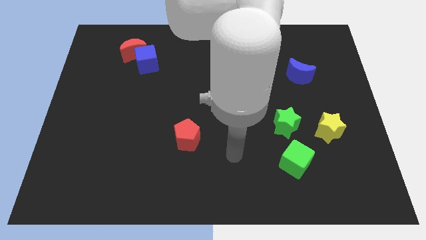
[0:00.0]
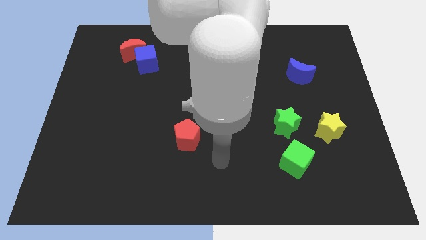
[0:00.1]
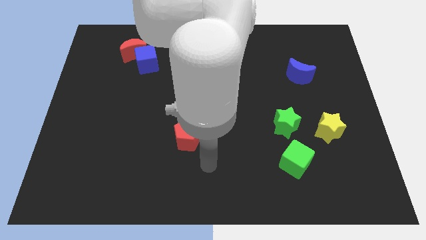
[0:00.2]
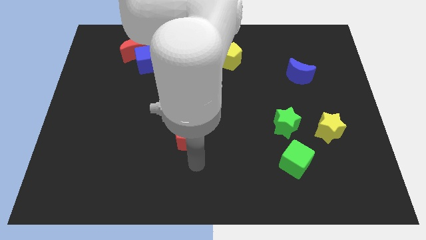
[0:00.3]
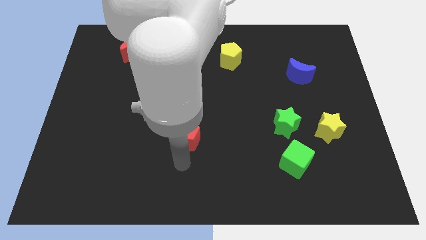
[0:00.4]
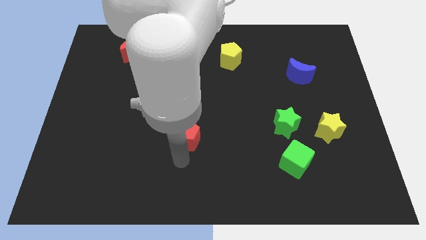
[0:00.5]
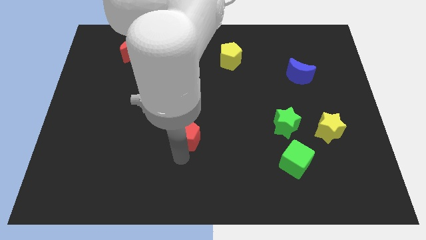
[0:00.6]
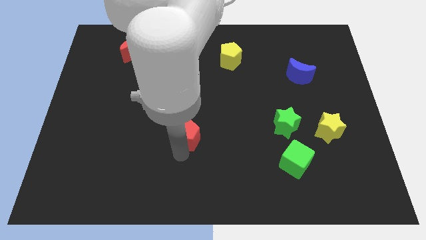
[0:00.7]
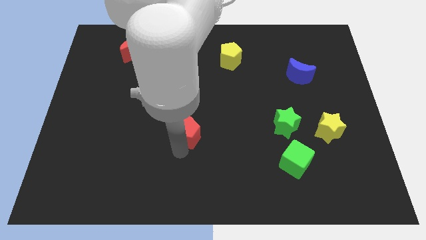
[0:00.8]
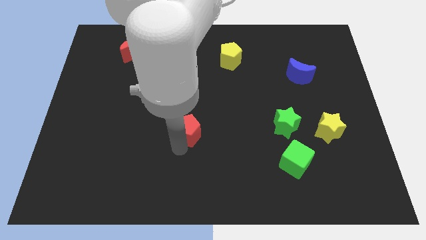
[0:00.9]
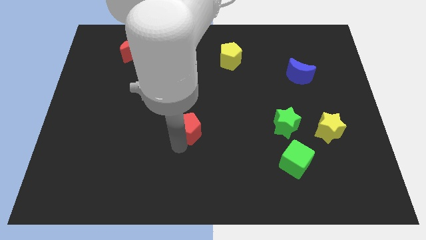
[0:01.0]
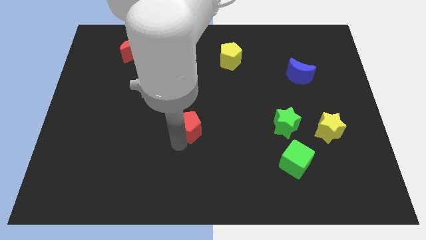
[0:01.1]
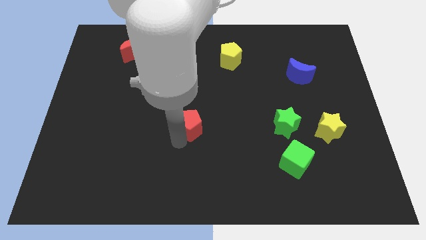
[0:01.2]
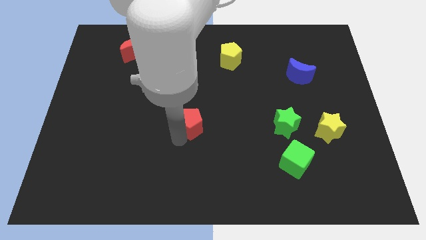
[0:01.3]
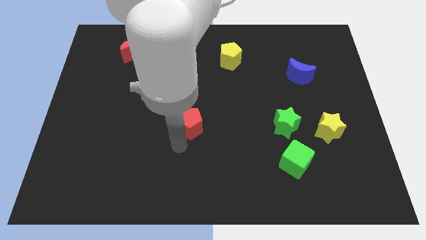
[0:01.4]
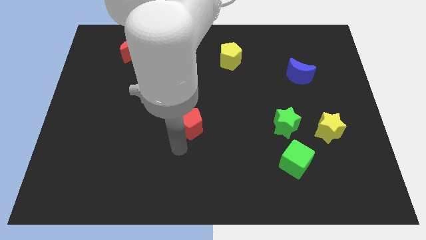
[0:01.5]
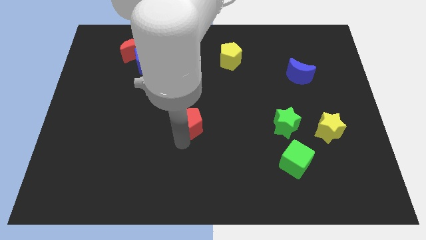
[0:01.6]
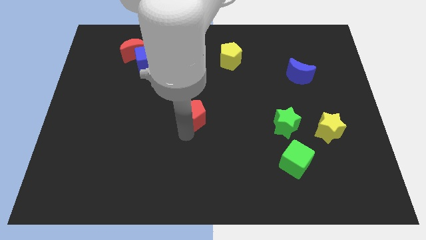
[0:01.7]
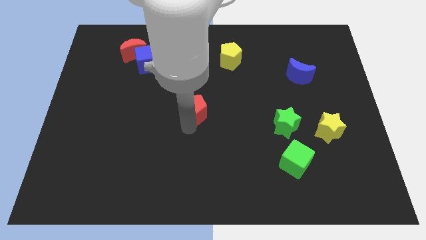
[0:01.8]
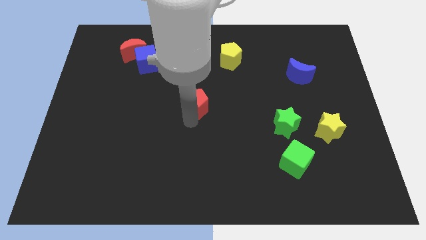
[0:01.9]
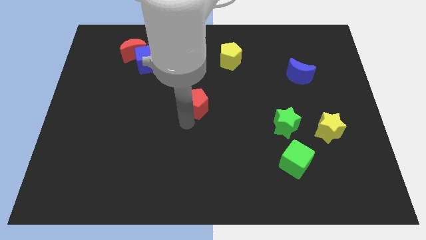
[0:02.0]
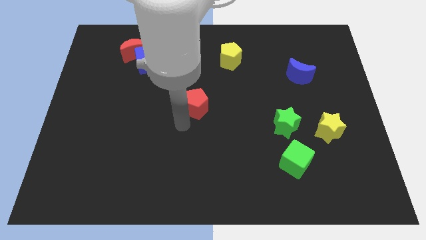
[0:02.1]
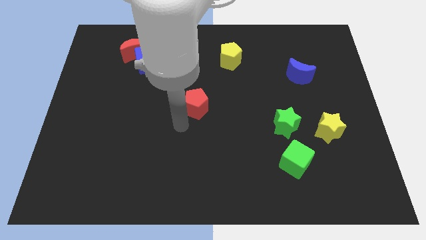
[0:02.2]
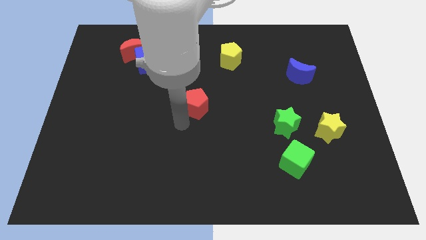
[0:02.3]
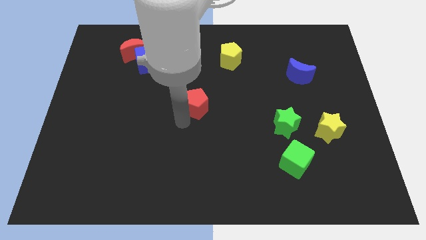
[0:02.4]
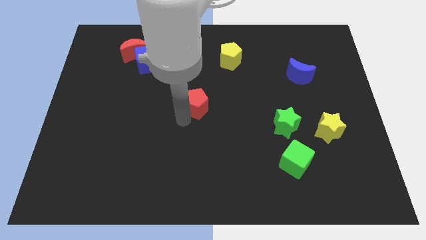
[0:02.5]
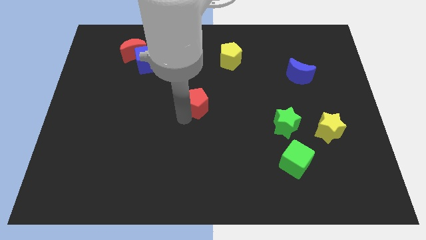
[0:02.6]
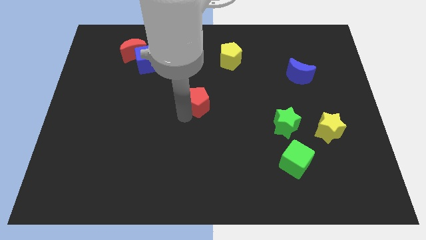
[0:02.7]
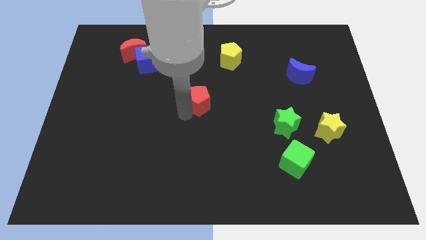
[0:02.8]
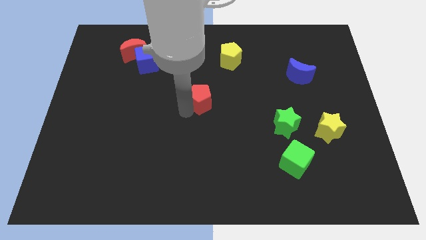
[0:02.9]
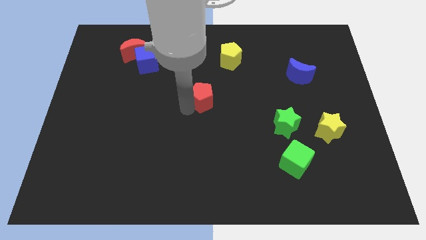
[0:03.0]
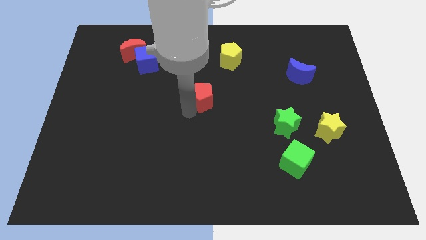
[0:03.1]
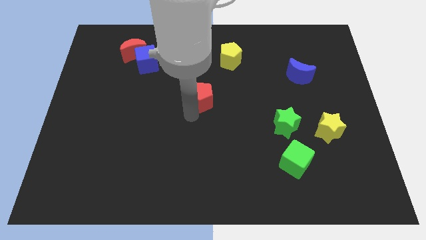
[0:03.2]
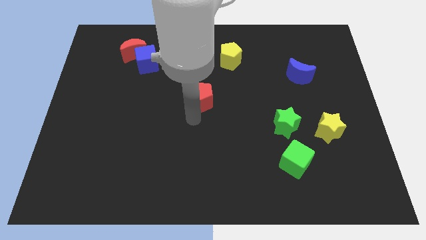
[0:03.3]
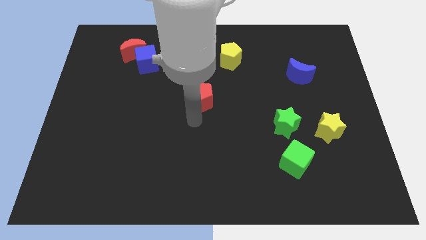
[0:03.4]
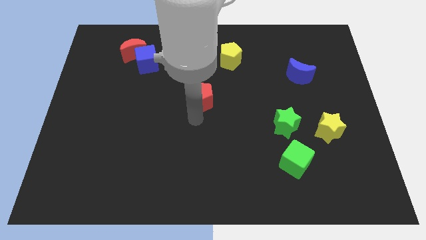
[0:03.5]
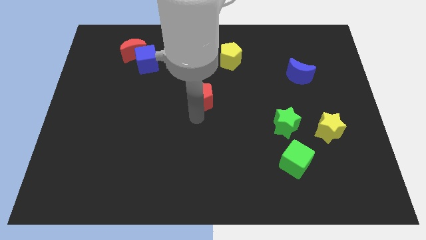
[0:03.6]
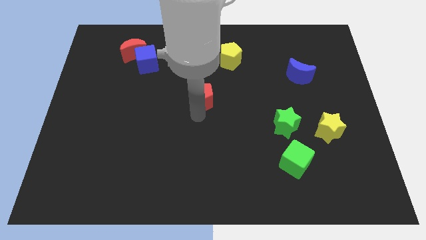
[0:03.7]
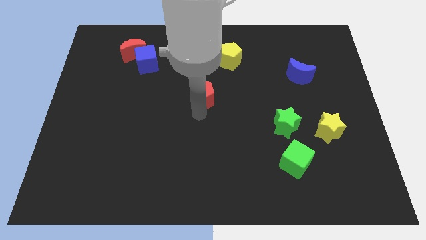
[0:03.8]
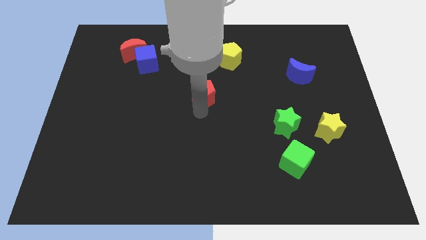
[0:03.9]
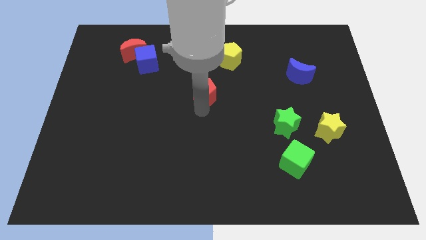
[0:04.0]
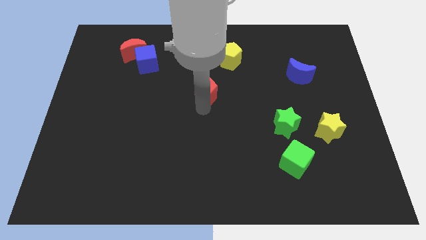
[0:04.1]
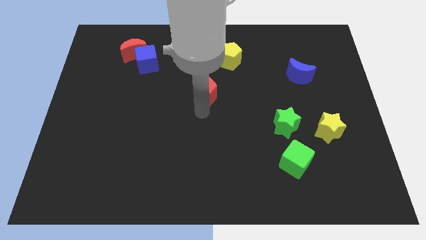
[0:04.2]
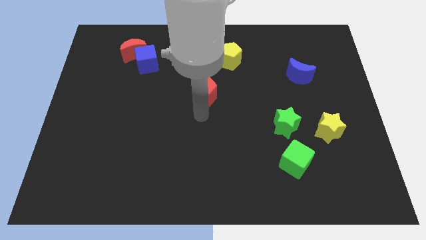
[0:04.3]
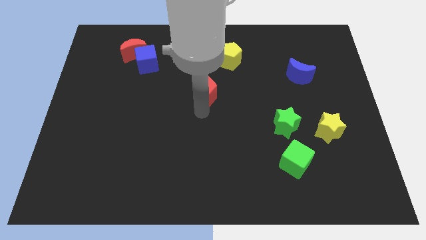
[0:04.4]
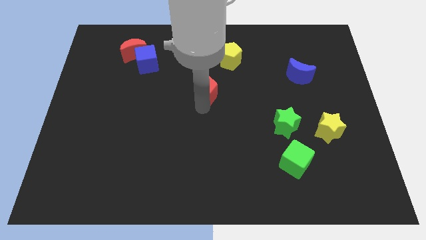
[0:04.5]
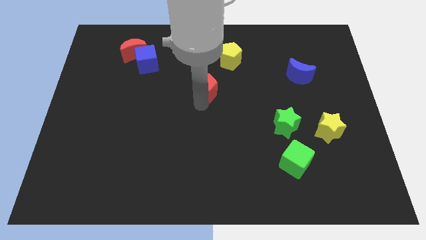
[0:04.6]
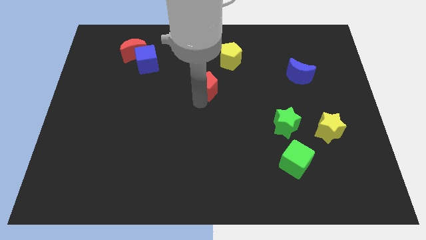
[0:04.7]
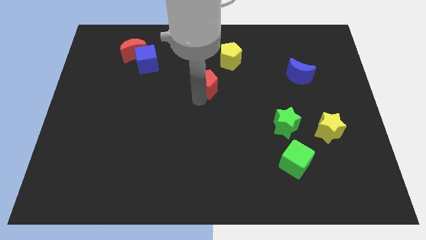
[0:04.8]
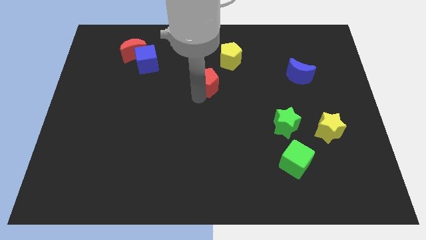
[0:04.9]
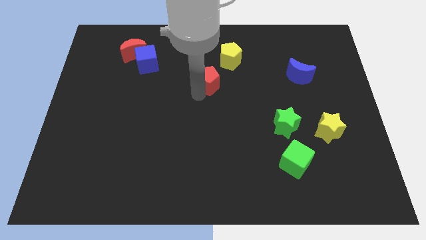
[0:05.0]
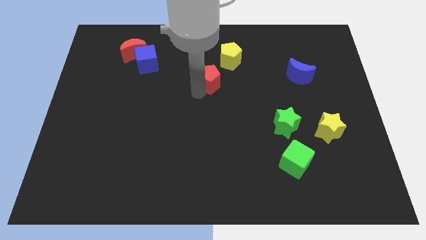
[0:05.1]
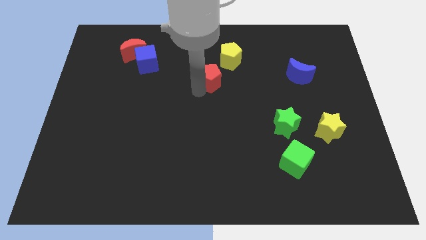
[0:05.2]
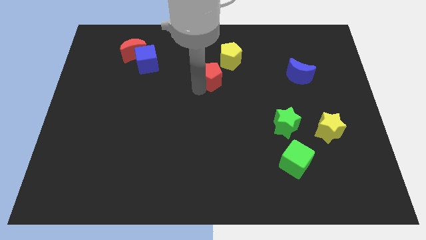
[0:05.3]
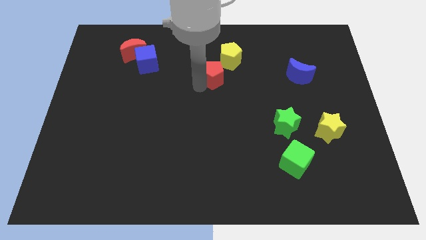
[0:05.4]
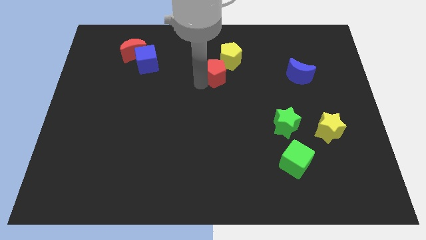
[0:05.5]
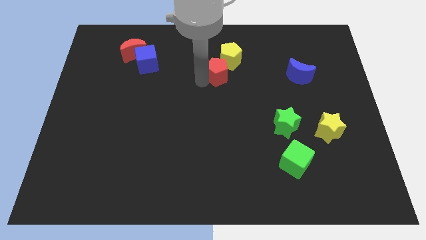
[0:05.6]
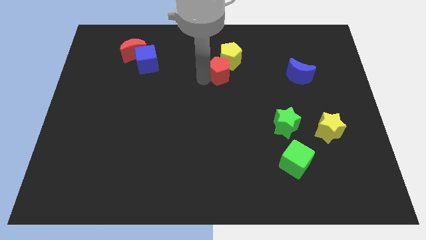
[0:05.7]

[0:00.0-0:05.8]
slide the red pentagon towards the yellow pentagon

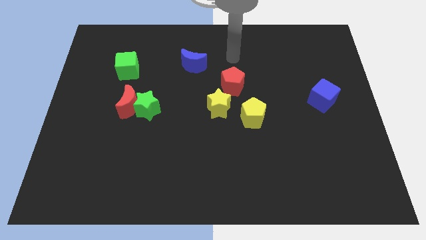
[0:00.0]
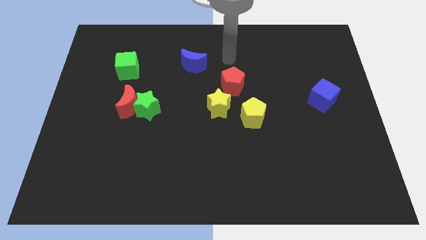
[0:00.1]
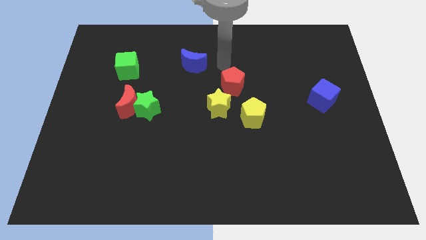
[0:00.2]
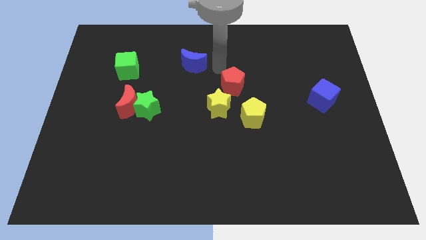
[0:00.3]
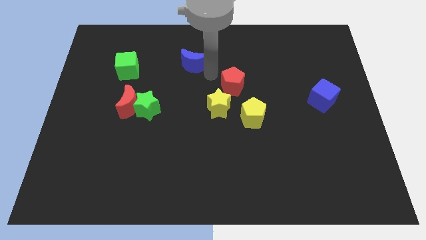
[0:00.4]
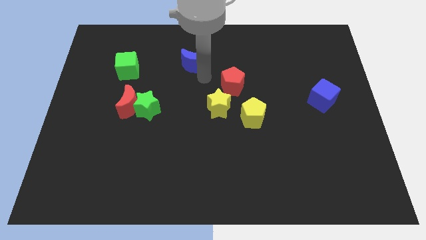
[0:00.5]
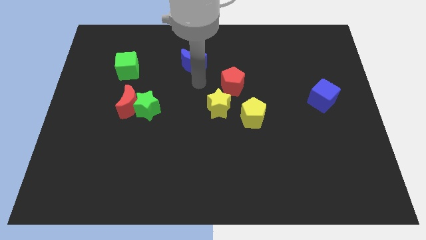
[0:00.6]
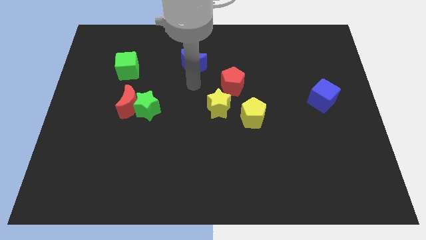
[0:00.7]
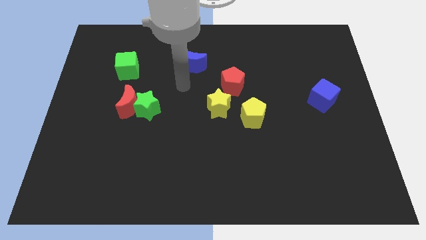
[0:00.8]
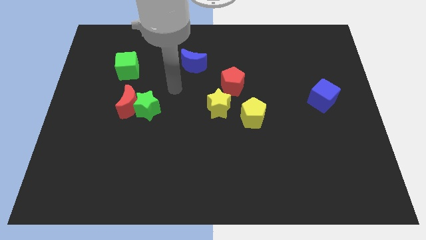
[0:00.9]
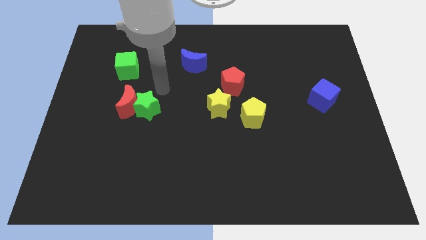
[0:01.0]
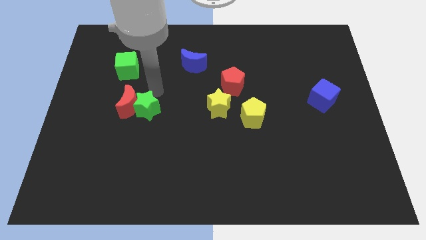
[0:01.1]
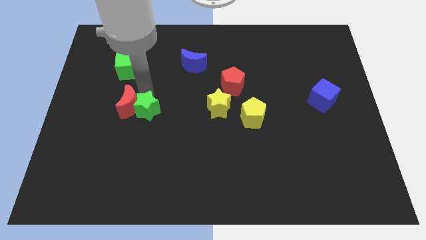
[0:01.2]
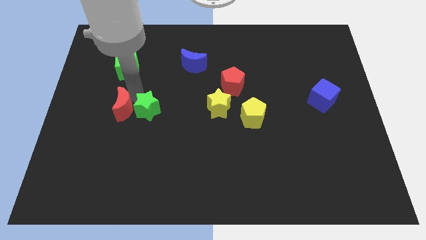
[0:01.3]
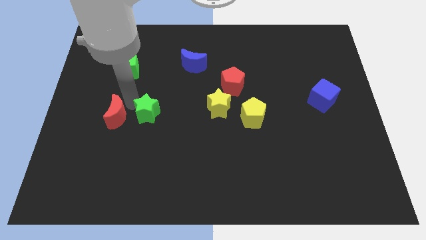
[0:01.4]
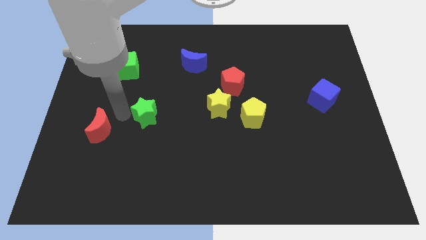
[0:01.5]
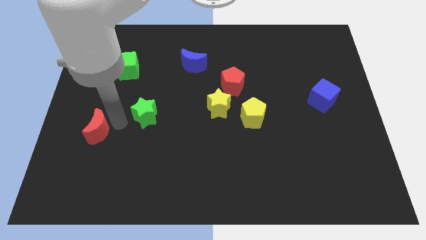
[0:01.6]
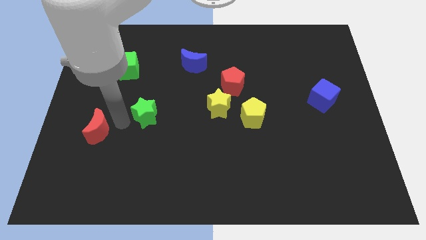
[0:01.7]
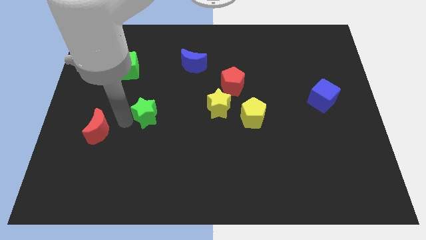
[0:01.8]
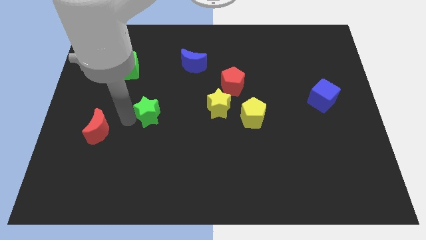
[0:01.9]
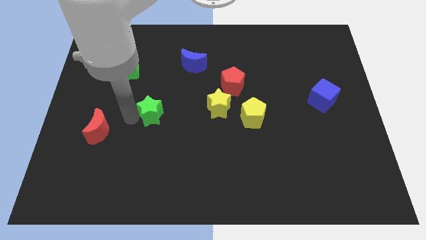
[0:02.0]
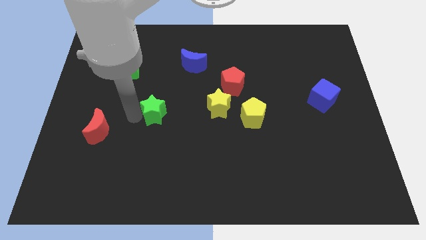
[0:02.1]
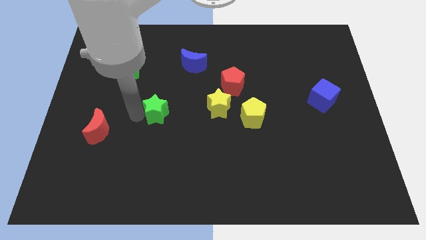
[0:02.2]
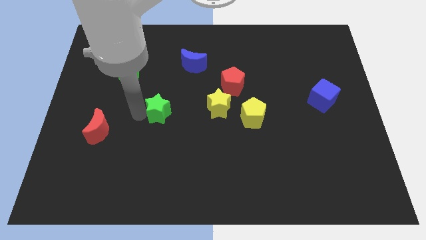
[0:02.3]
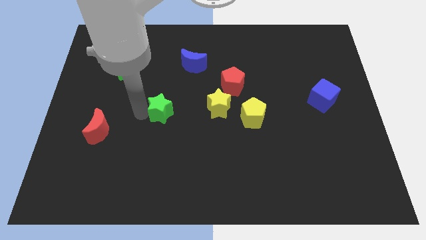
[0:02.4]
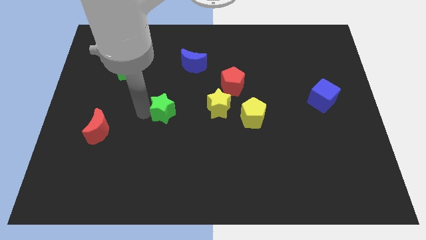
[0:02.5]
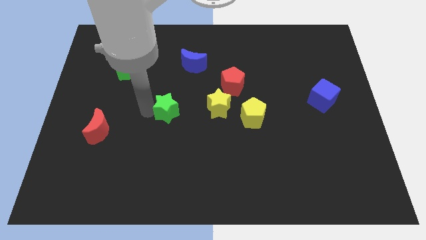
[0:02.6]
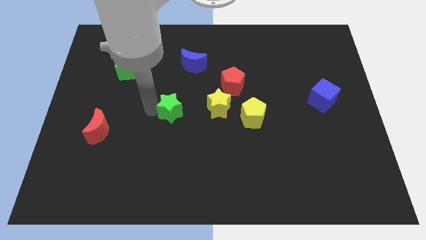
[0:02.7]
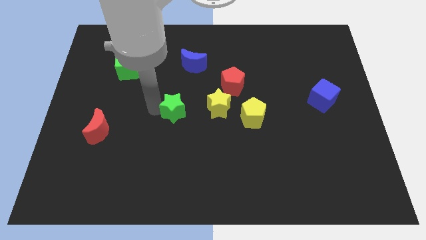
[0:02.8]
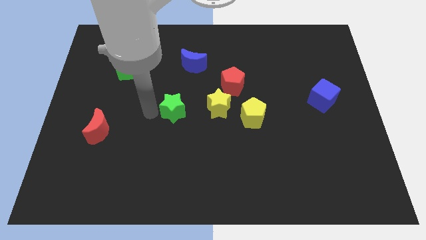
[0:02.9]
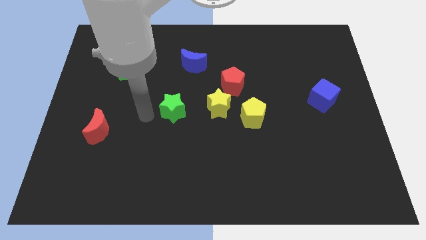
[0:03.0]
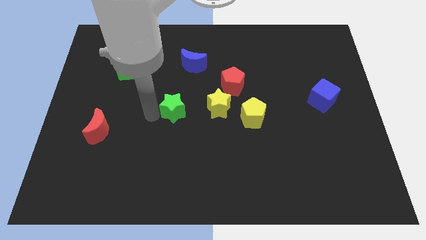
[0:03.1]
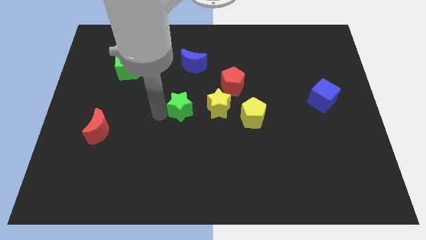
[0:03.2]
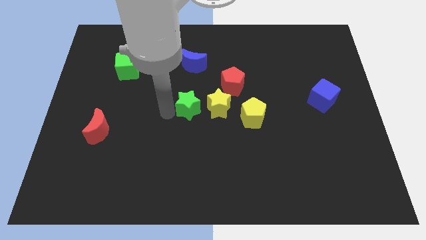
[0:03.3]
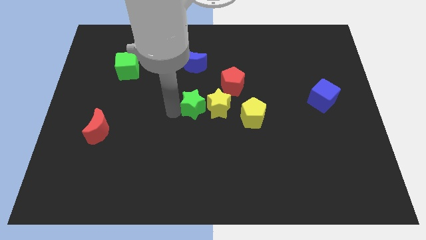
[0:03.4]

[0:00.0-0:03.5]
push the green star to the yellow star
